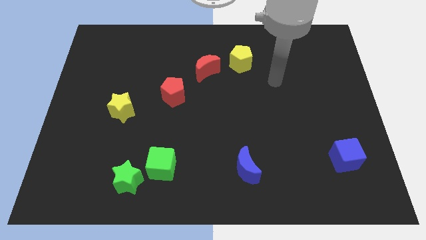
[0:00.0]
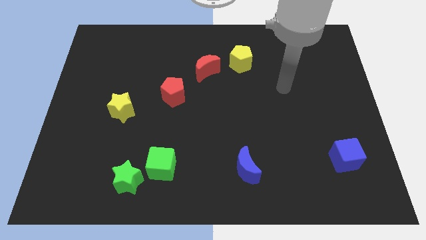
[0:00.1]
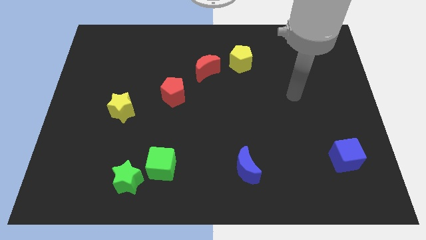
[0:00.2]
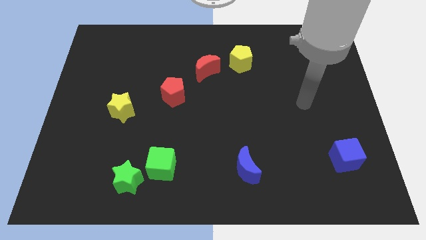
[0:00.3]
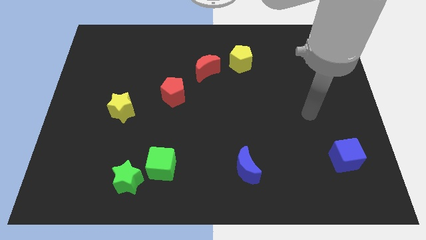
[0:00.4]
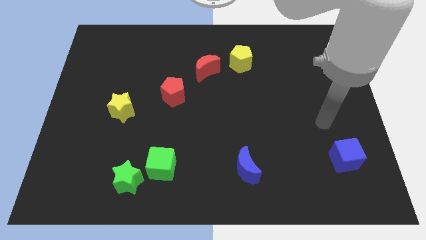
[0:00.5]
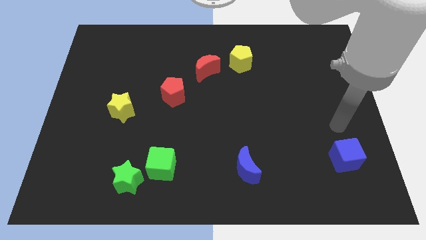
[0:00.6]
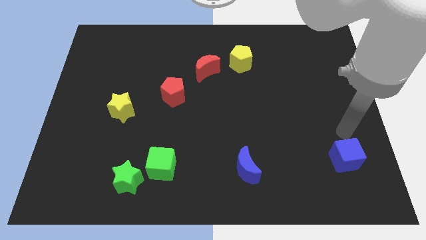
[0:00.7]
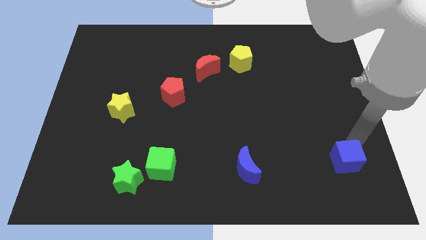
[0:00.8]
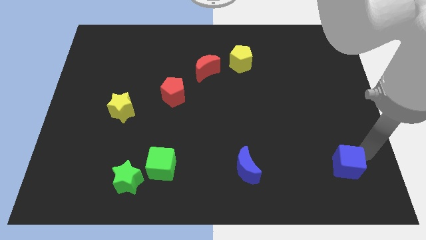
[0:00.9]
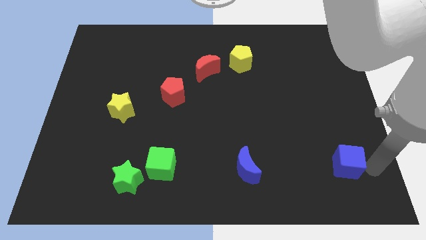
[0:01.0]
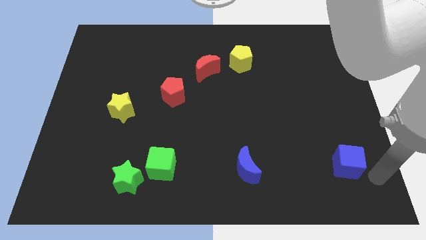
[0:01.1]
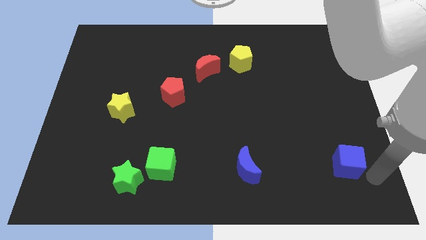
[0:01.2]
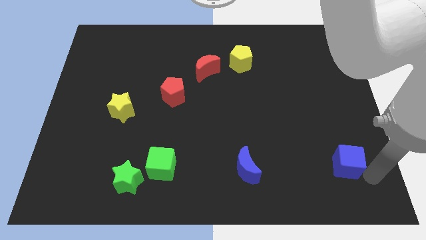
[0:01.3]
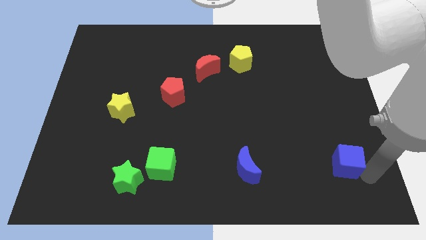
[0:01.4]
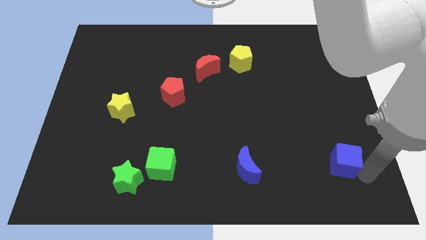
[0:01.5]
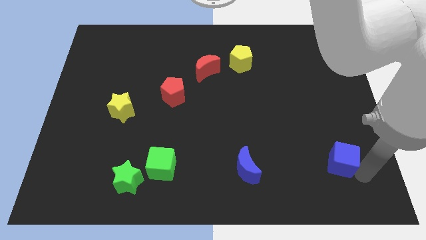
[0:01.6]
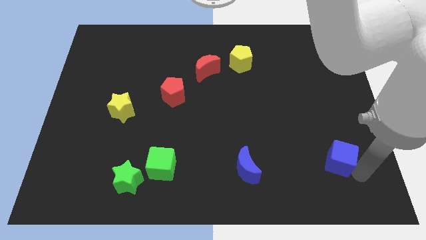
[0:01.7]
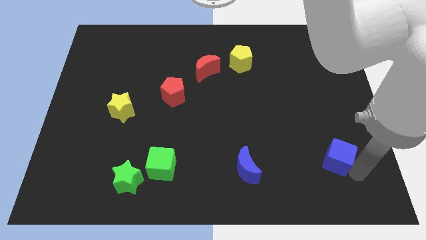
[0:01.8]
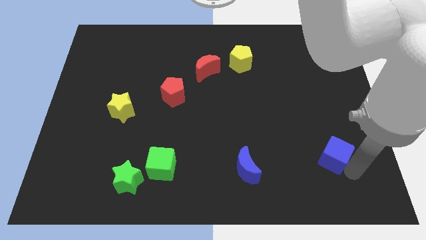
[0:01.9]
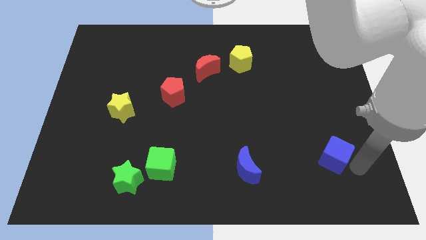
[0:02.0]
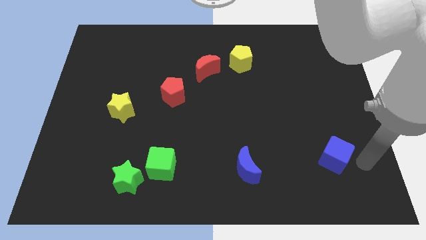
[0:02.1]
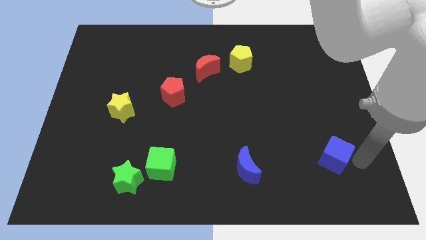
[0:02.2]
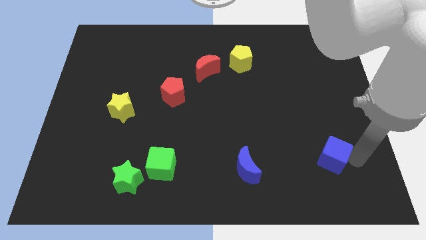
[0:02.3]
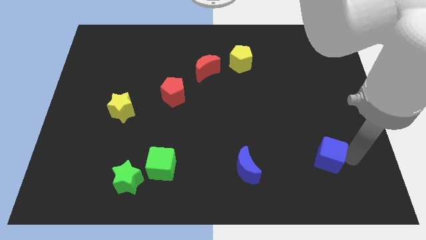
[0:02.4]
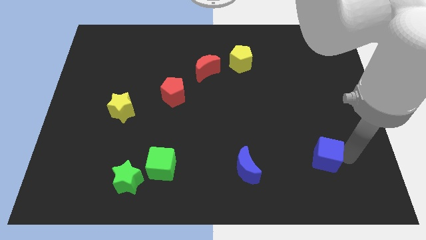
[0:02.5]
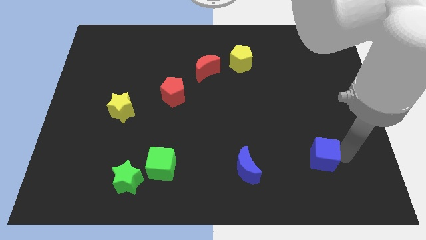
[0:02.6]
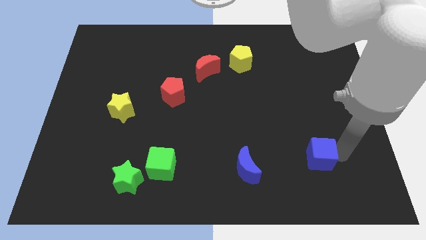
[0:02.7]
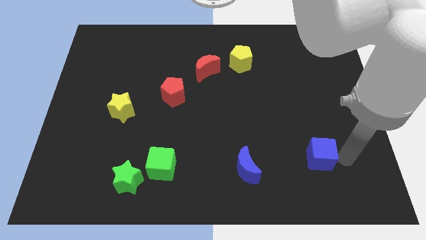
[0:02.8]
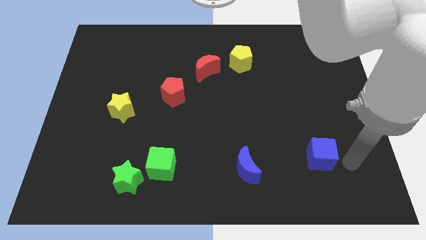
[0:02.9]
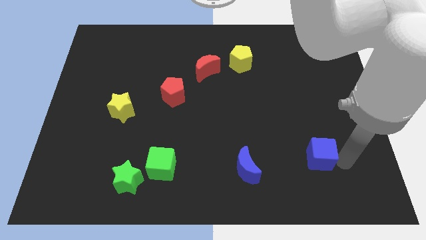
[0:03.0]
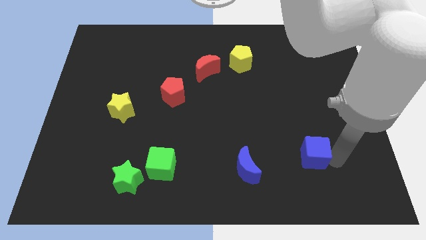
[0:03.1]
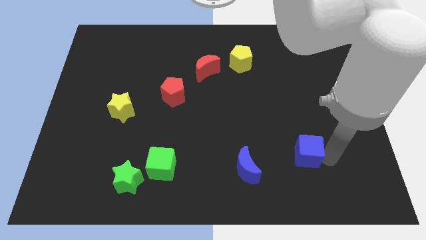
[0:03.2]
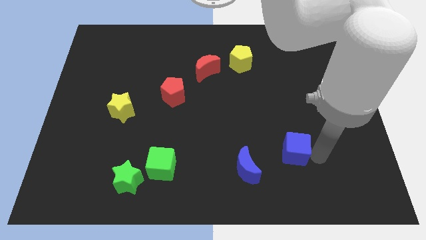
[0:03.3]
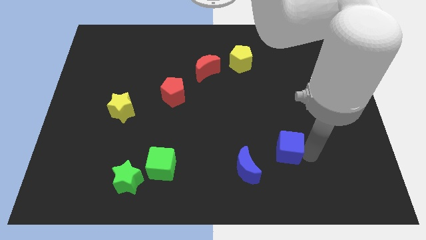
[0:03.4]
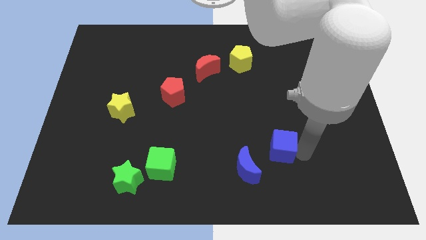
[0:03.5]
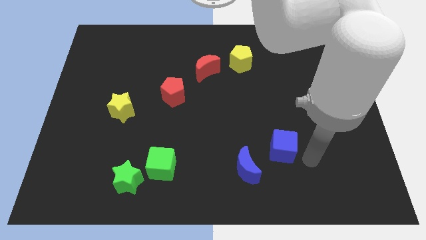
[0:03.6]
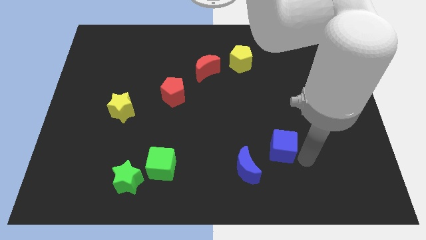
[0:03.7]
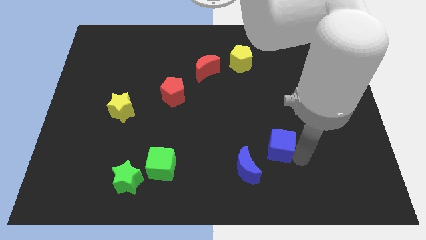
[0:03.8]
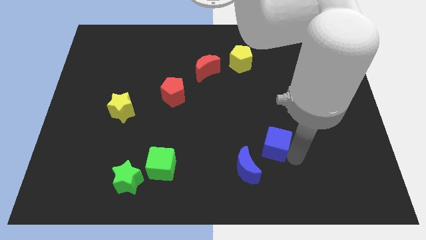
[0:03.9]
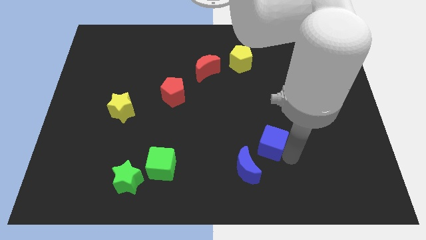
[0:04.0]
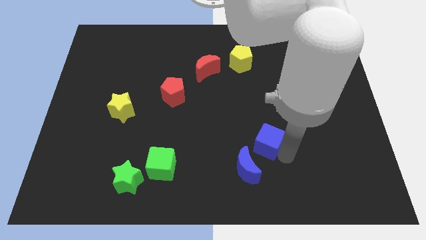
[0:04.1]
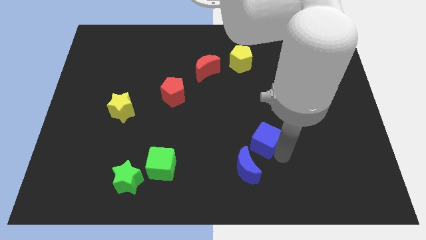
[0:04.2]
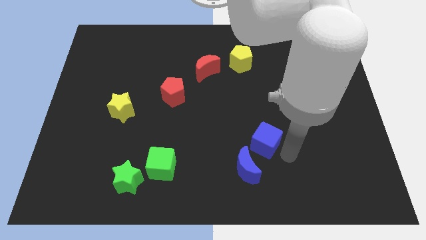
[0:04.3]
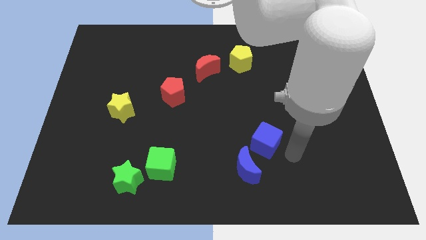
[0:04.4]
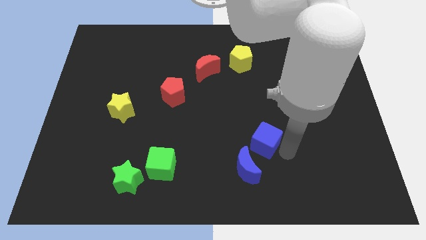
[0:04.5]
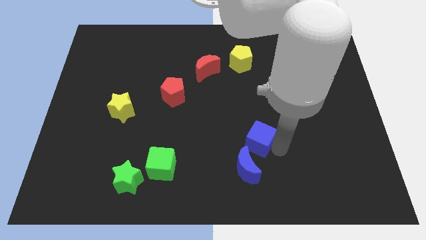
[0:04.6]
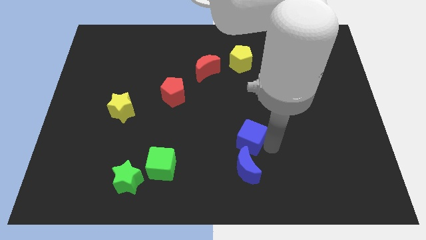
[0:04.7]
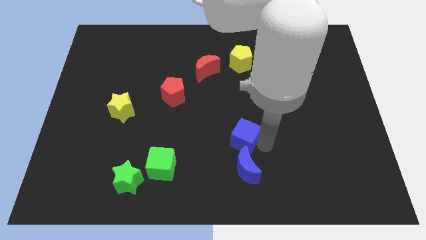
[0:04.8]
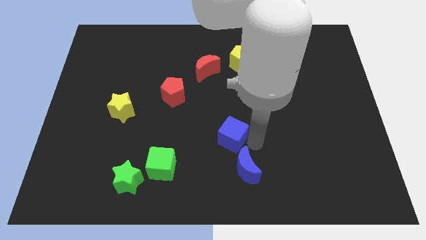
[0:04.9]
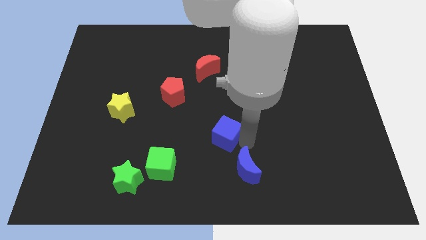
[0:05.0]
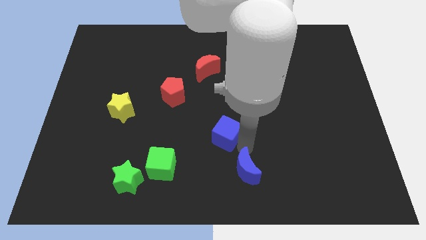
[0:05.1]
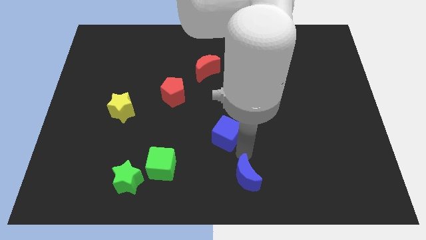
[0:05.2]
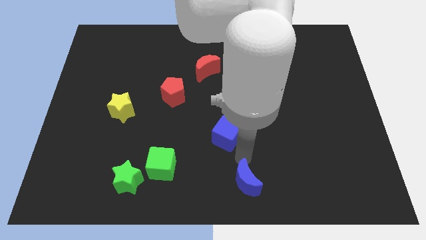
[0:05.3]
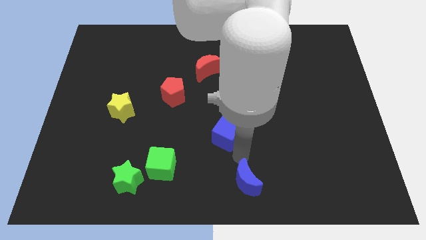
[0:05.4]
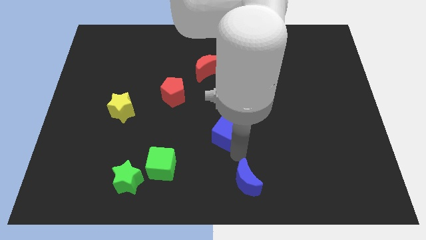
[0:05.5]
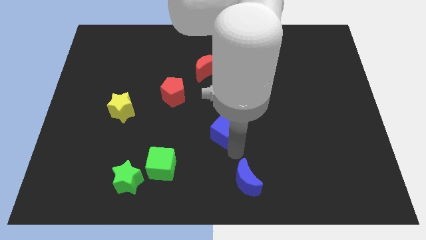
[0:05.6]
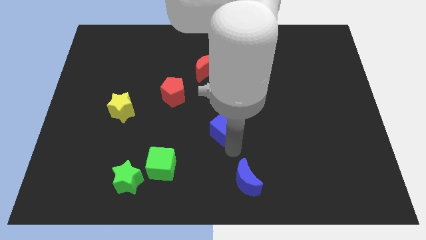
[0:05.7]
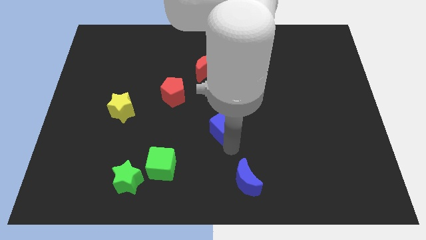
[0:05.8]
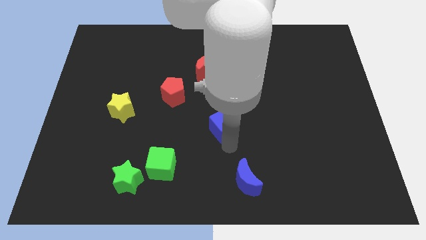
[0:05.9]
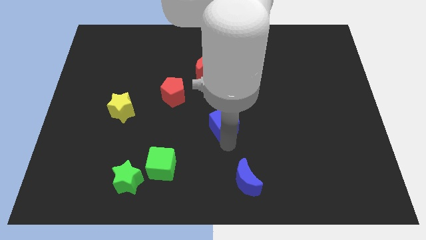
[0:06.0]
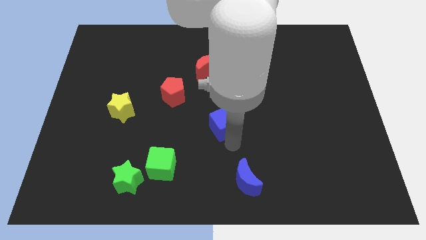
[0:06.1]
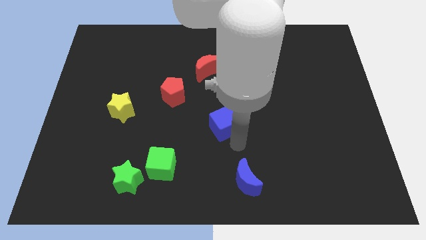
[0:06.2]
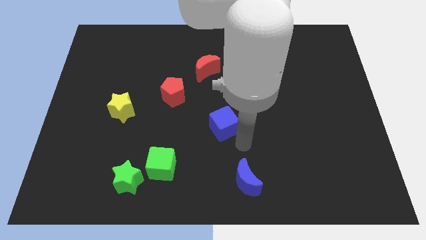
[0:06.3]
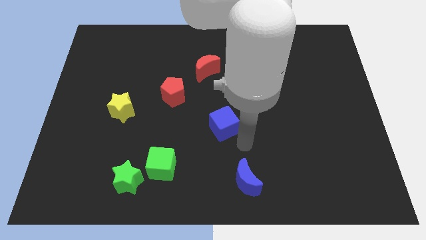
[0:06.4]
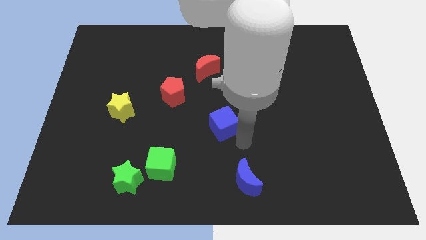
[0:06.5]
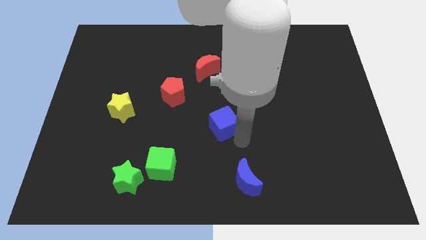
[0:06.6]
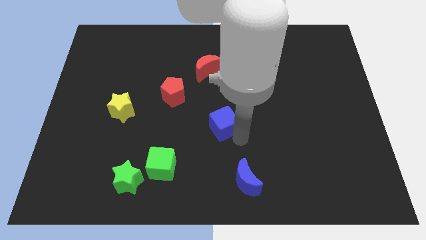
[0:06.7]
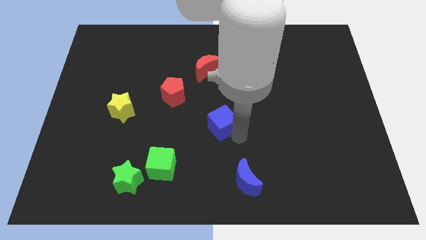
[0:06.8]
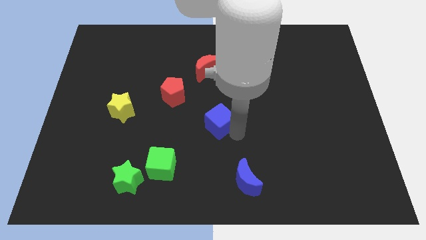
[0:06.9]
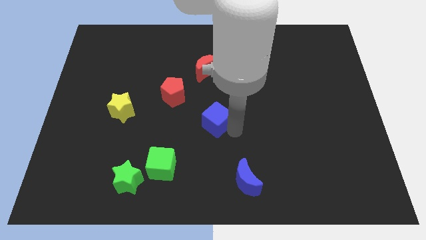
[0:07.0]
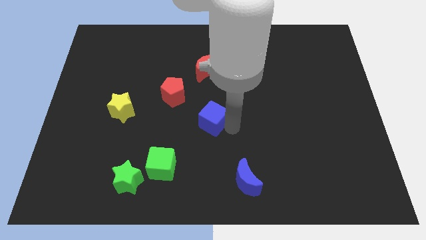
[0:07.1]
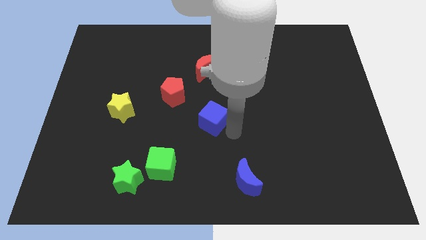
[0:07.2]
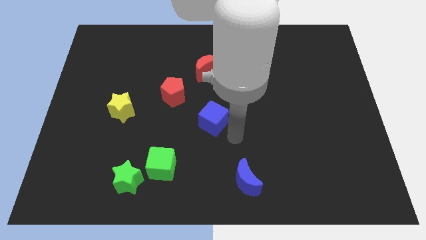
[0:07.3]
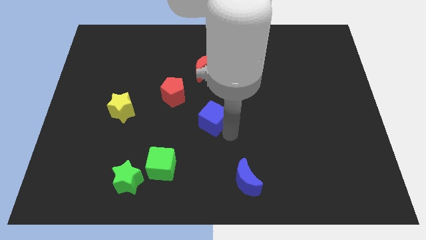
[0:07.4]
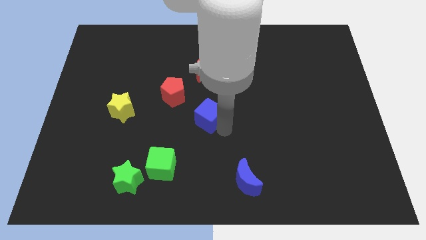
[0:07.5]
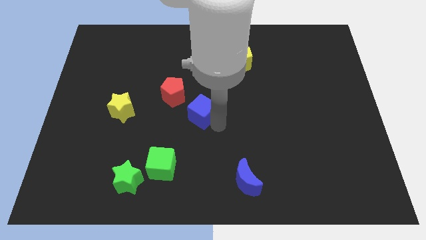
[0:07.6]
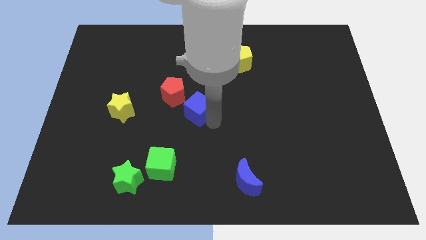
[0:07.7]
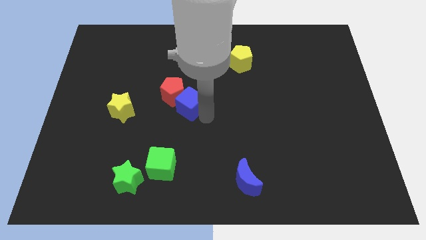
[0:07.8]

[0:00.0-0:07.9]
move the blue cube close to the red pentagon
